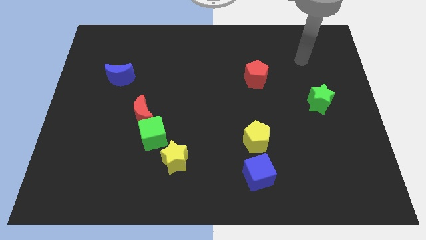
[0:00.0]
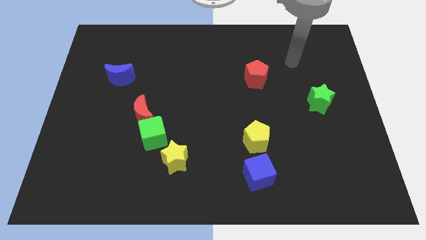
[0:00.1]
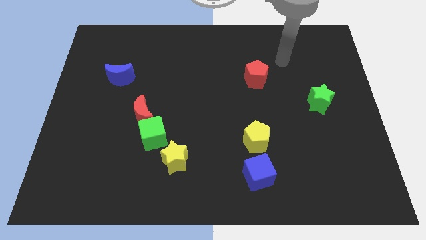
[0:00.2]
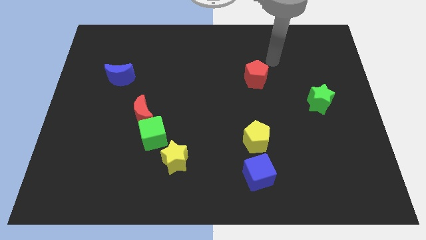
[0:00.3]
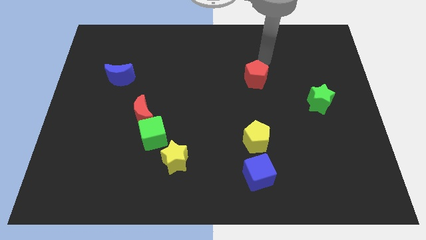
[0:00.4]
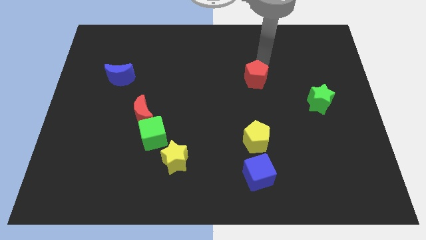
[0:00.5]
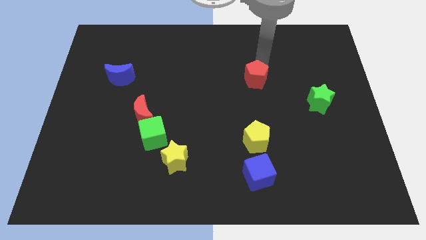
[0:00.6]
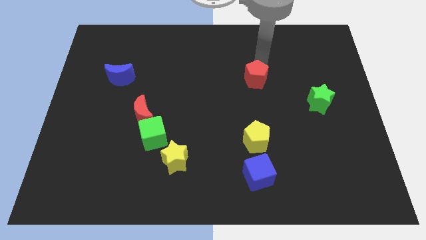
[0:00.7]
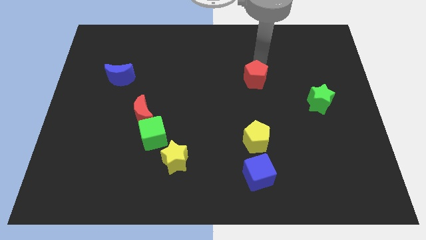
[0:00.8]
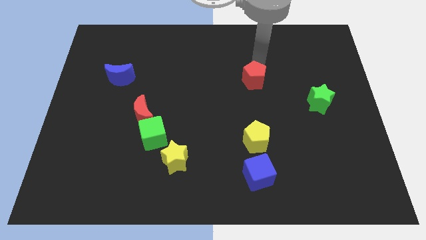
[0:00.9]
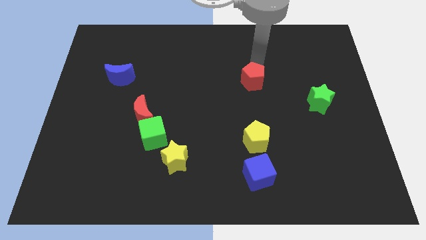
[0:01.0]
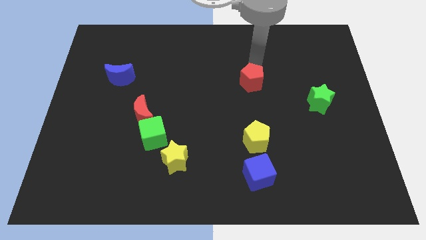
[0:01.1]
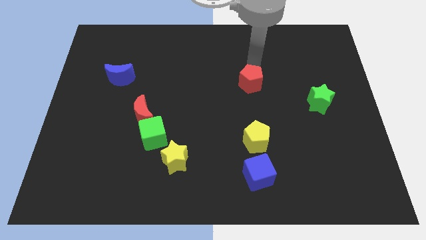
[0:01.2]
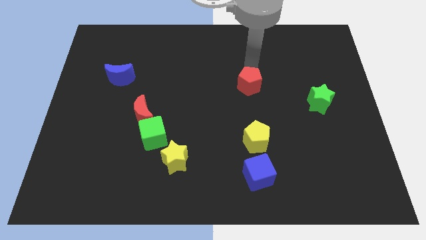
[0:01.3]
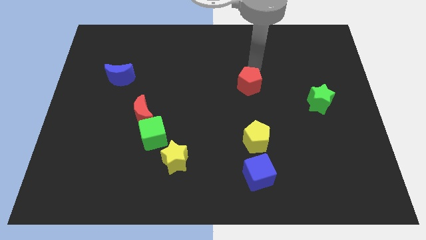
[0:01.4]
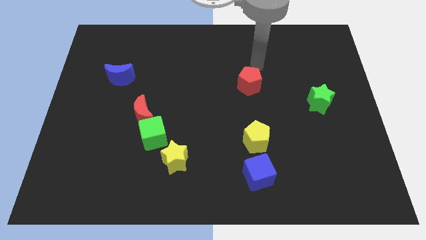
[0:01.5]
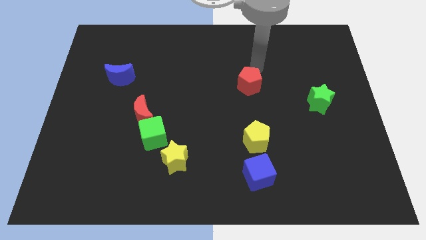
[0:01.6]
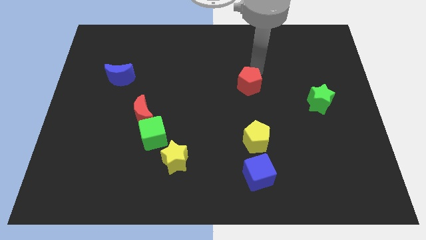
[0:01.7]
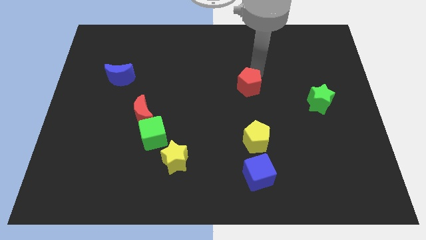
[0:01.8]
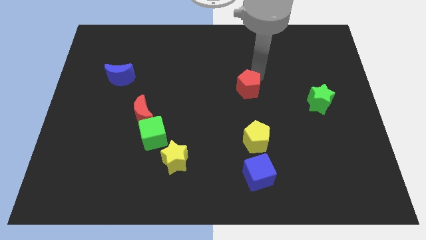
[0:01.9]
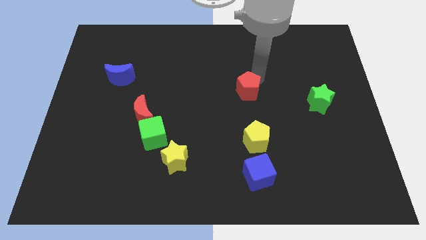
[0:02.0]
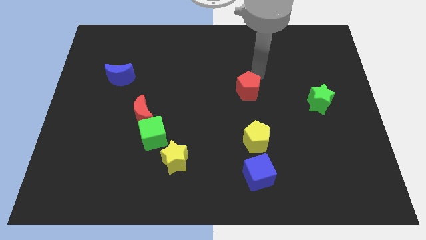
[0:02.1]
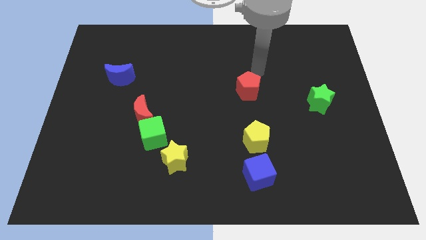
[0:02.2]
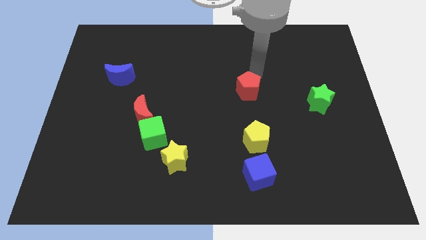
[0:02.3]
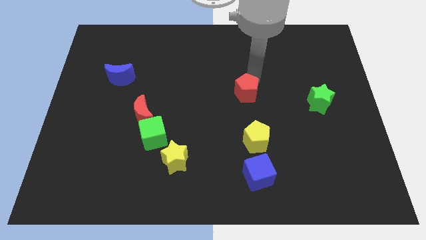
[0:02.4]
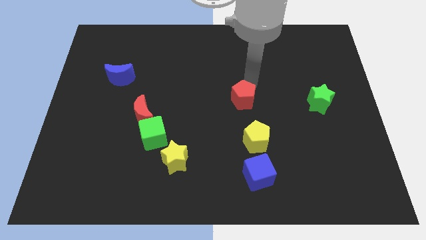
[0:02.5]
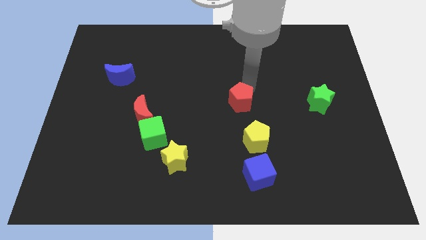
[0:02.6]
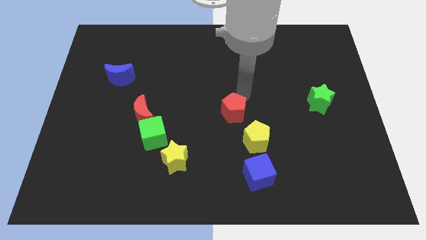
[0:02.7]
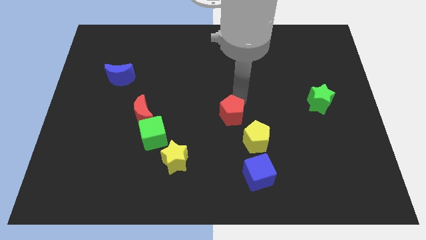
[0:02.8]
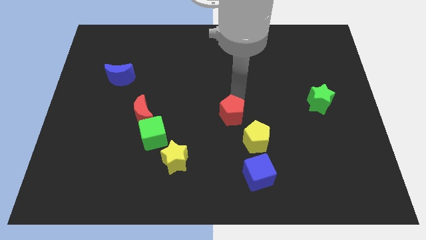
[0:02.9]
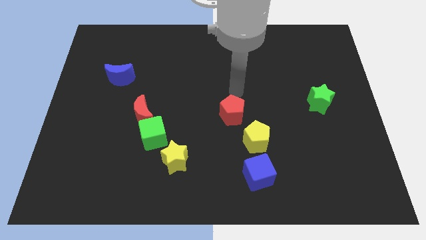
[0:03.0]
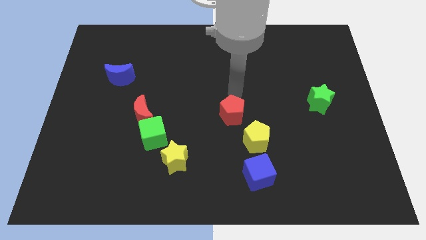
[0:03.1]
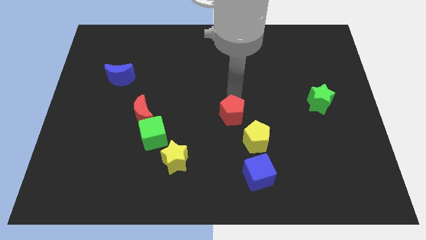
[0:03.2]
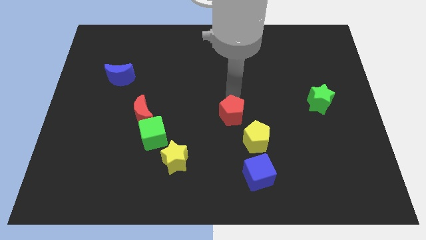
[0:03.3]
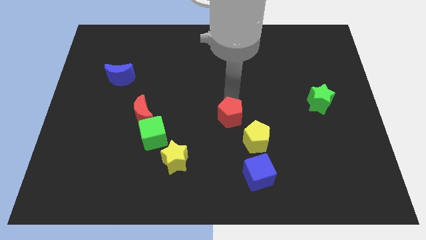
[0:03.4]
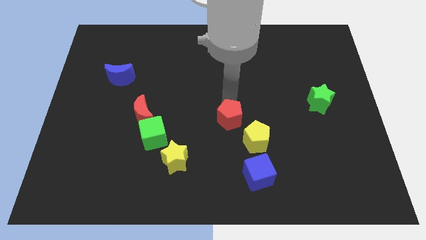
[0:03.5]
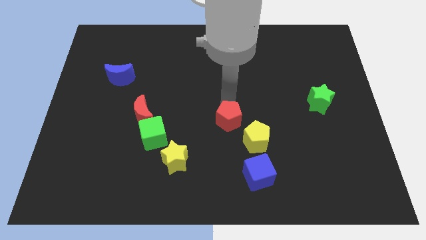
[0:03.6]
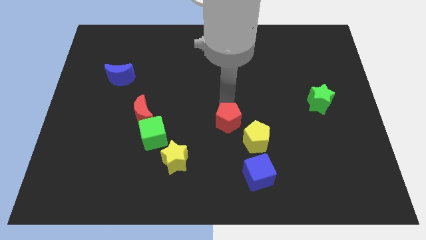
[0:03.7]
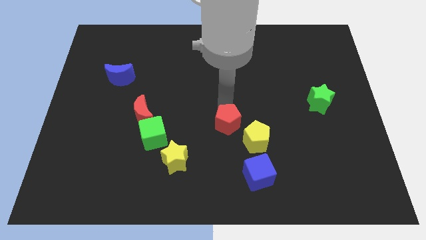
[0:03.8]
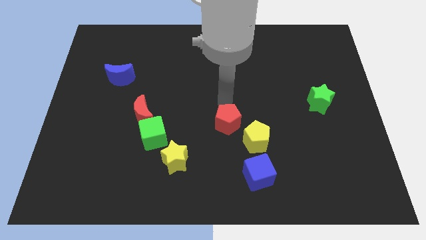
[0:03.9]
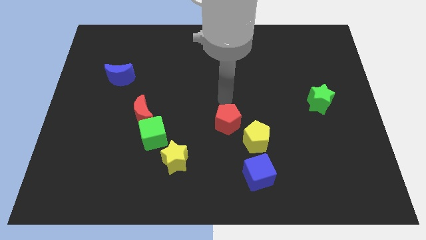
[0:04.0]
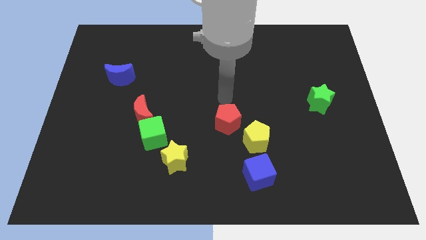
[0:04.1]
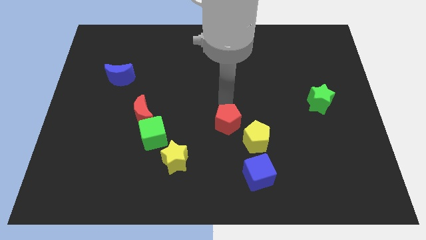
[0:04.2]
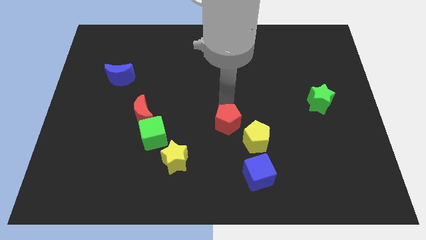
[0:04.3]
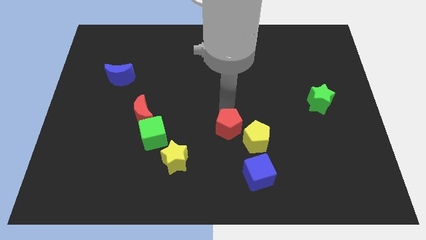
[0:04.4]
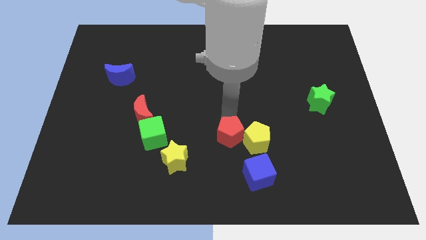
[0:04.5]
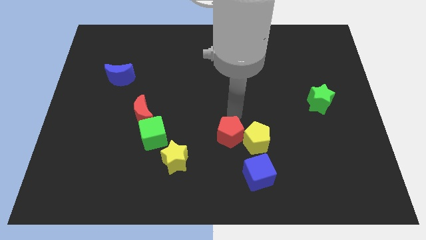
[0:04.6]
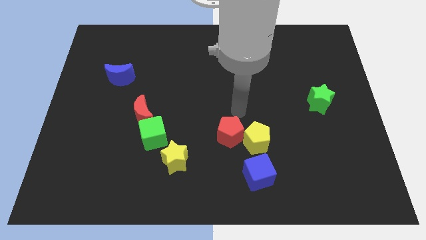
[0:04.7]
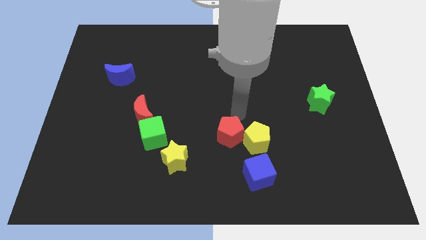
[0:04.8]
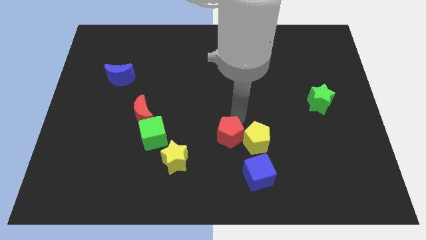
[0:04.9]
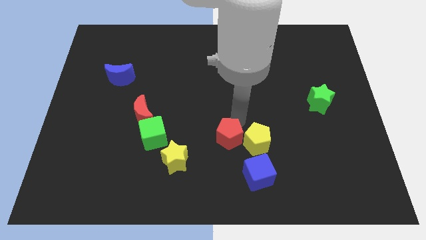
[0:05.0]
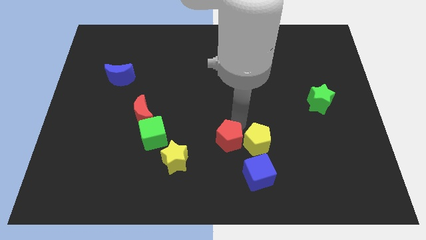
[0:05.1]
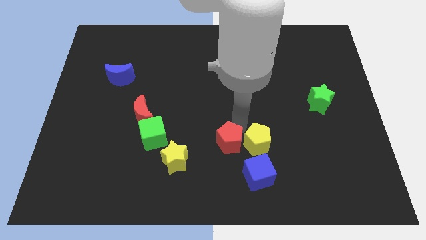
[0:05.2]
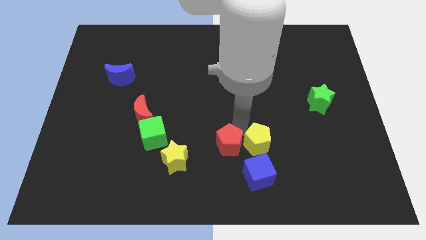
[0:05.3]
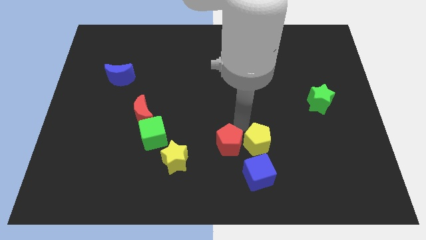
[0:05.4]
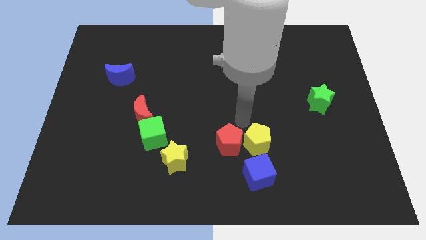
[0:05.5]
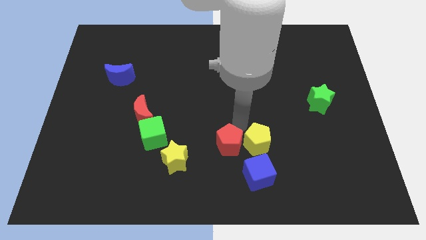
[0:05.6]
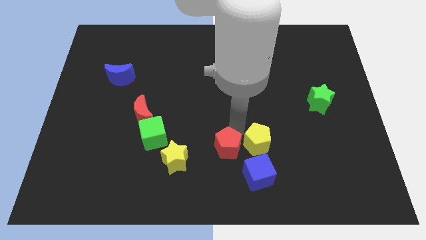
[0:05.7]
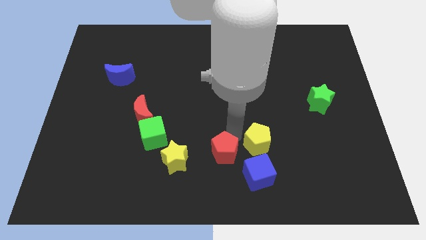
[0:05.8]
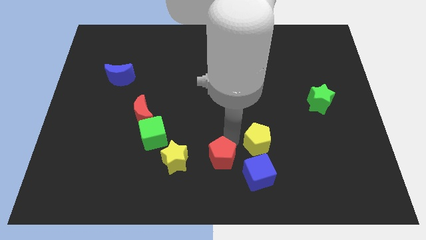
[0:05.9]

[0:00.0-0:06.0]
slide the red pentagon to the bottom

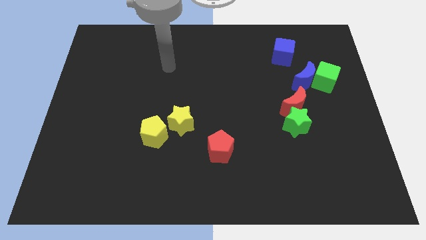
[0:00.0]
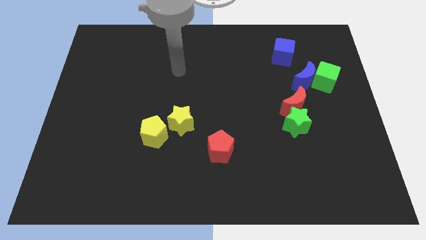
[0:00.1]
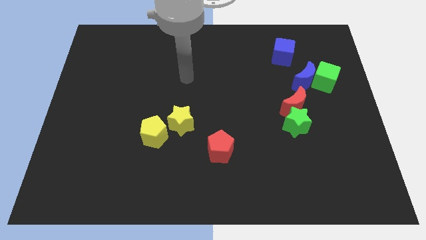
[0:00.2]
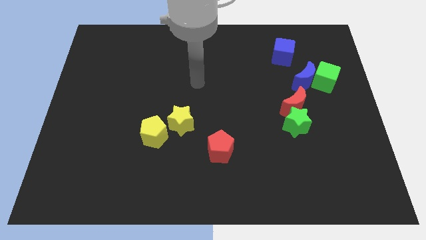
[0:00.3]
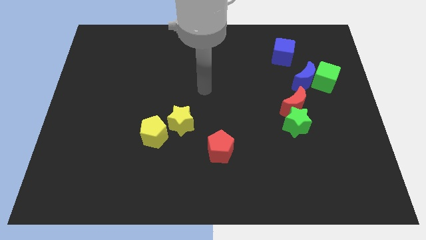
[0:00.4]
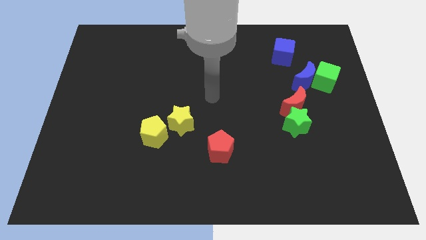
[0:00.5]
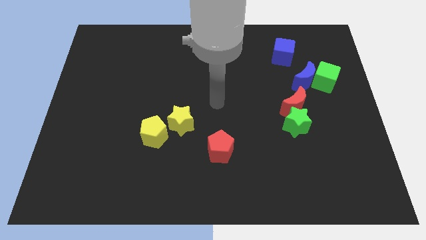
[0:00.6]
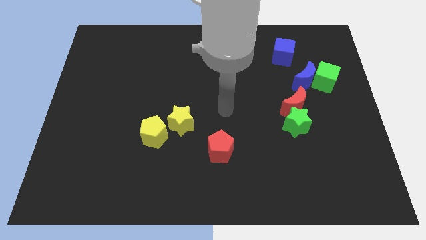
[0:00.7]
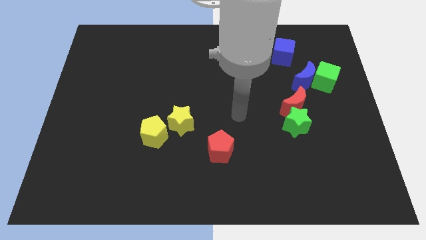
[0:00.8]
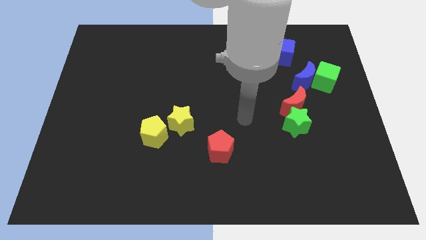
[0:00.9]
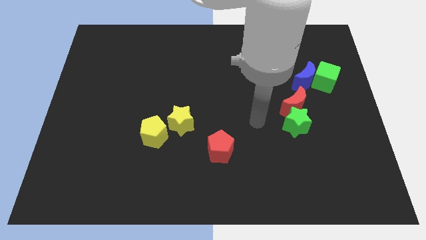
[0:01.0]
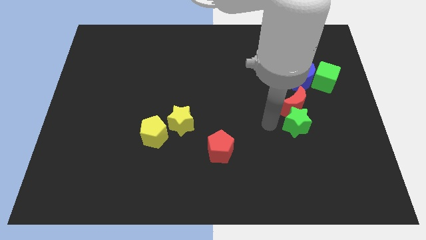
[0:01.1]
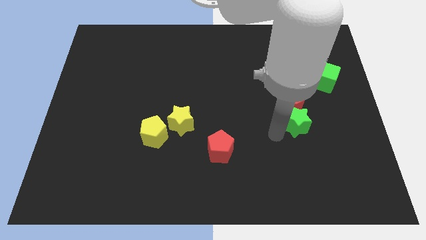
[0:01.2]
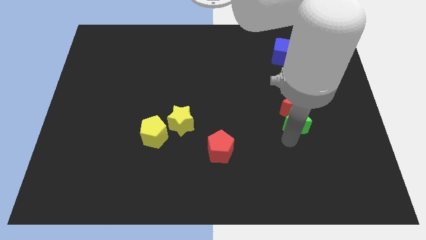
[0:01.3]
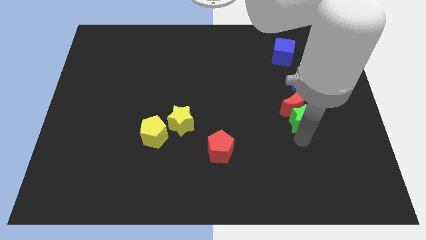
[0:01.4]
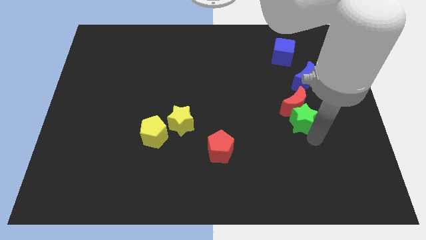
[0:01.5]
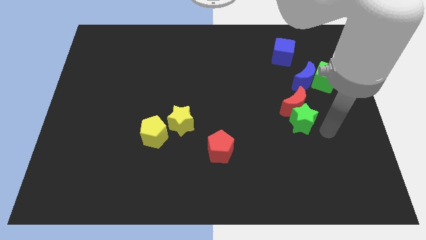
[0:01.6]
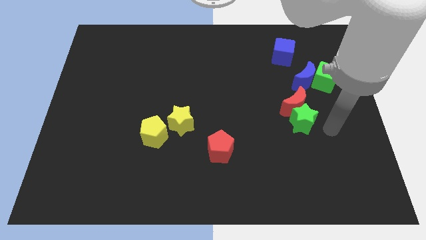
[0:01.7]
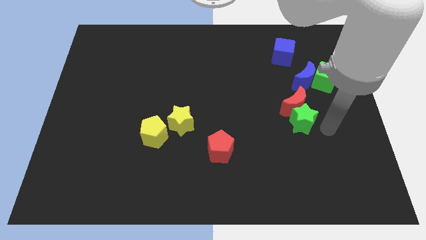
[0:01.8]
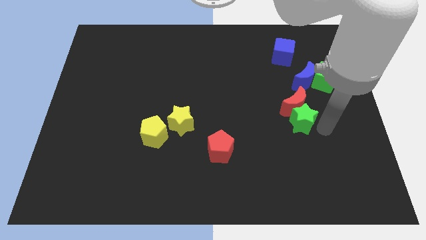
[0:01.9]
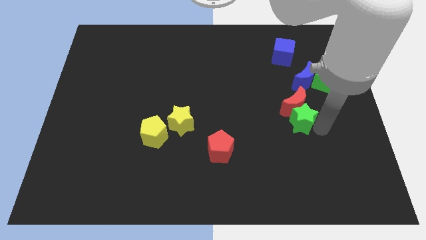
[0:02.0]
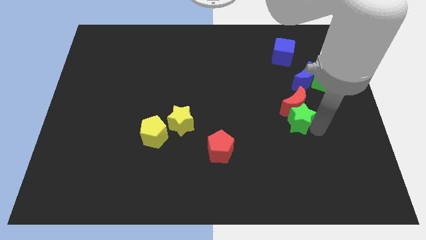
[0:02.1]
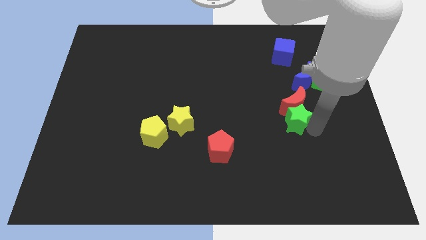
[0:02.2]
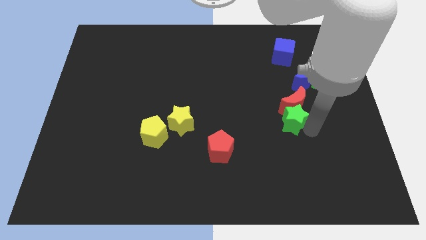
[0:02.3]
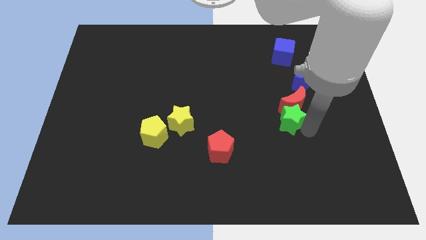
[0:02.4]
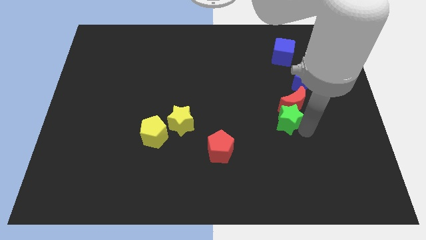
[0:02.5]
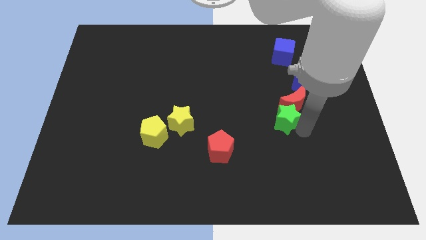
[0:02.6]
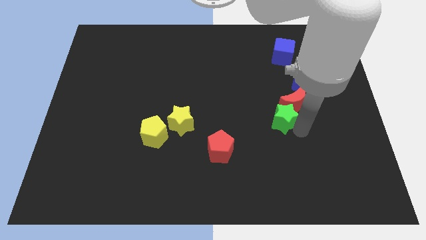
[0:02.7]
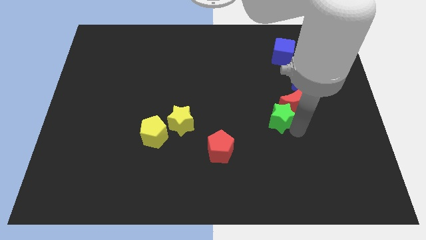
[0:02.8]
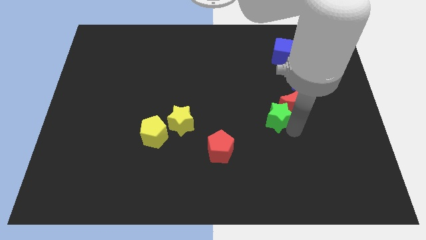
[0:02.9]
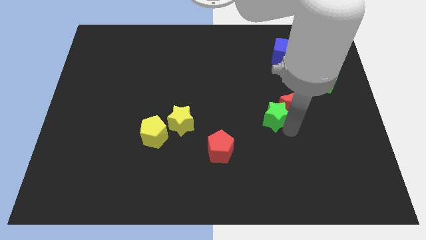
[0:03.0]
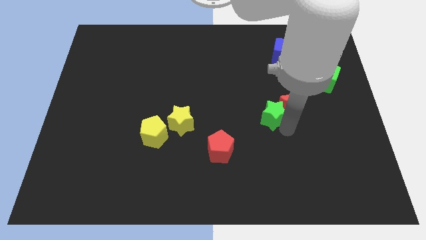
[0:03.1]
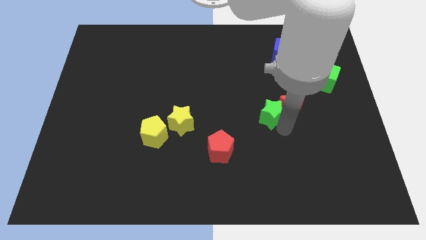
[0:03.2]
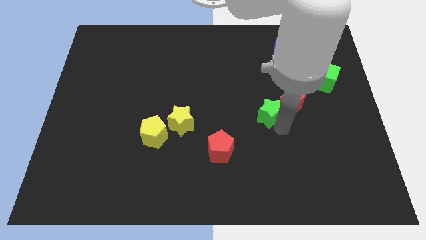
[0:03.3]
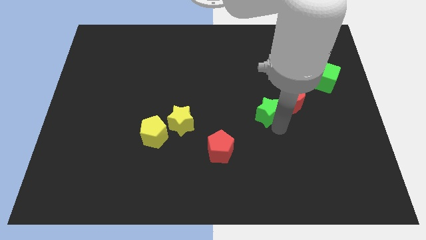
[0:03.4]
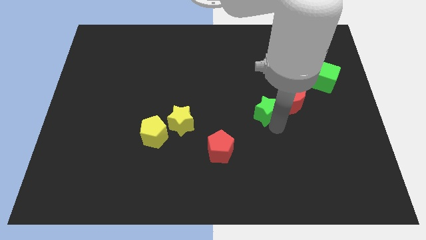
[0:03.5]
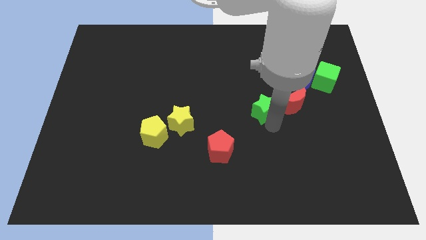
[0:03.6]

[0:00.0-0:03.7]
push the green star to the center
